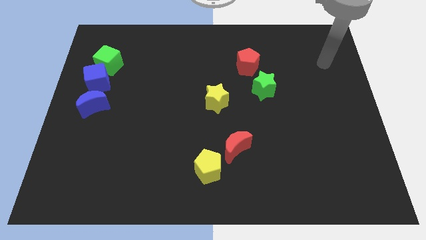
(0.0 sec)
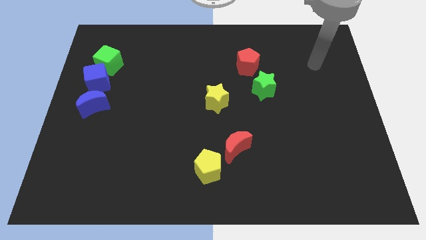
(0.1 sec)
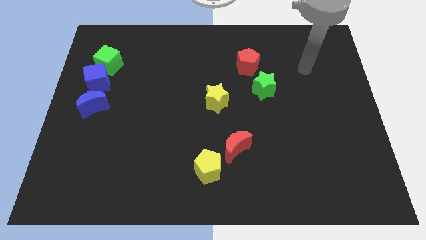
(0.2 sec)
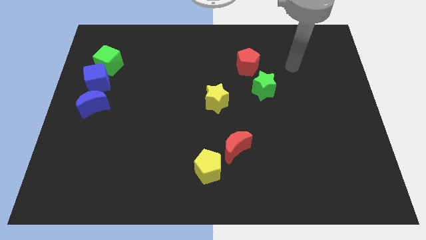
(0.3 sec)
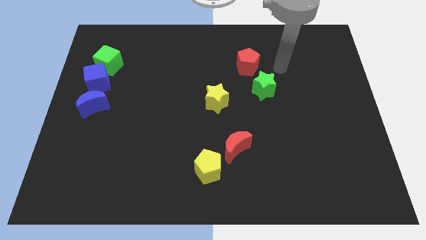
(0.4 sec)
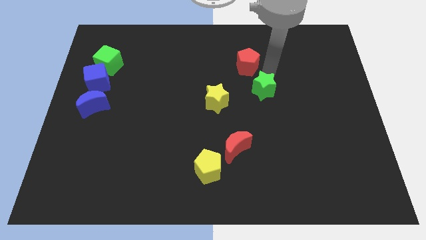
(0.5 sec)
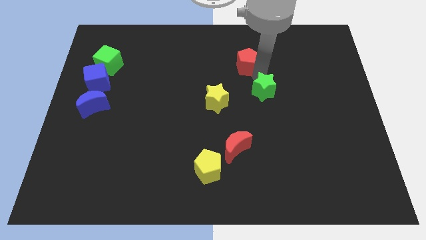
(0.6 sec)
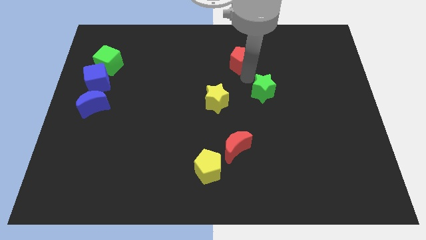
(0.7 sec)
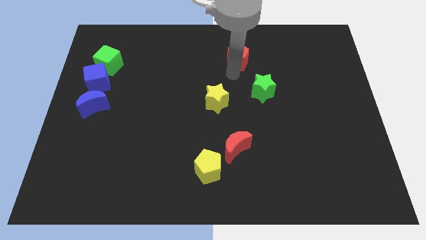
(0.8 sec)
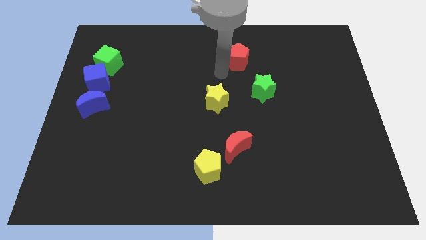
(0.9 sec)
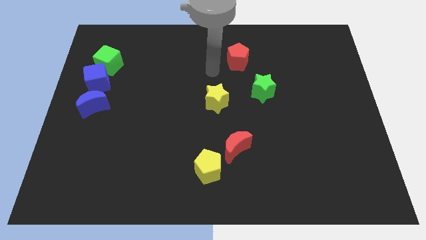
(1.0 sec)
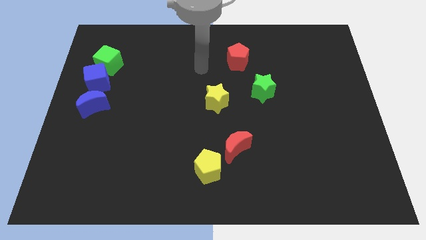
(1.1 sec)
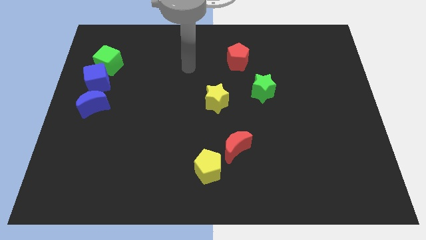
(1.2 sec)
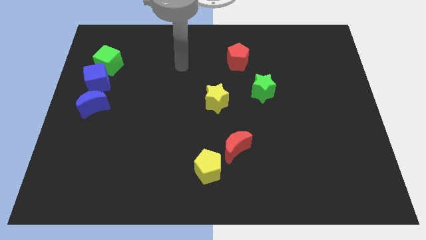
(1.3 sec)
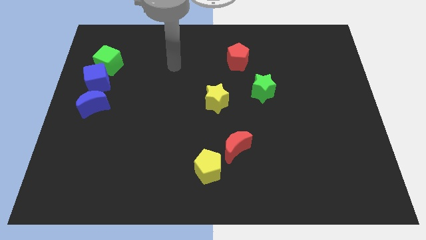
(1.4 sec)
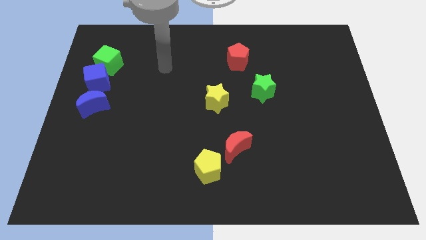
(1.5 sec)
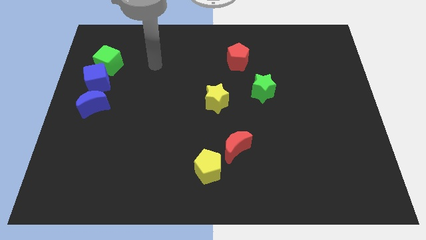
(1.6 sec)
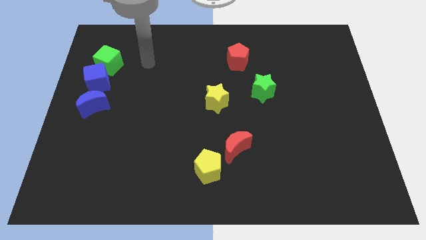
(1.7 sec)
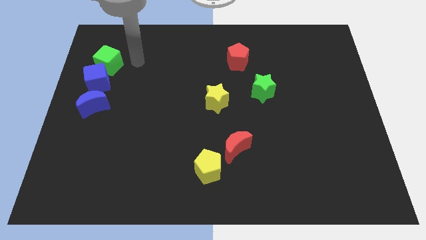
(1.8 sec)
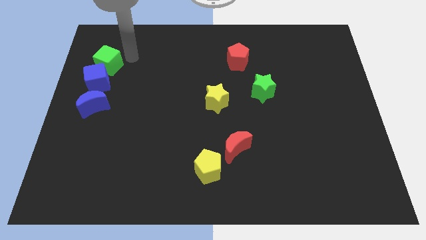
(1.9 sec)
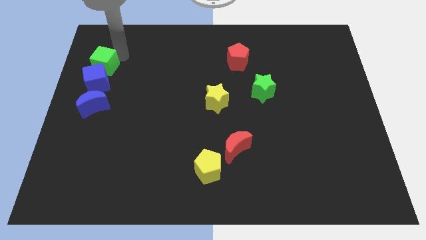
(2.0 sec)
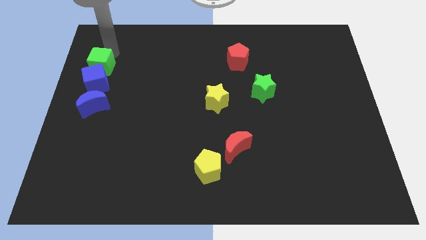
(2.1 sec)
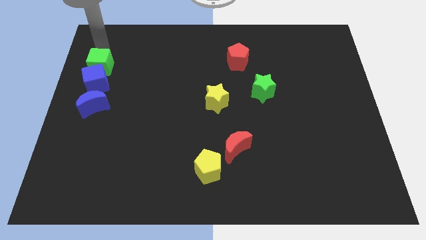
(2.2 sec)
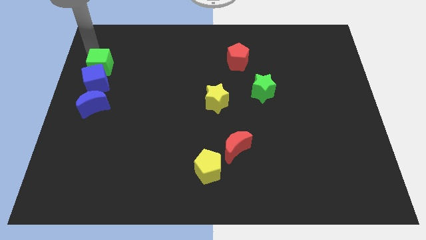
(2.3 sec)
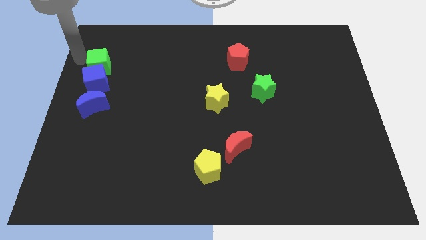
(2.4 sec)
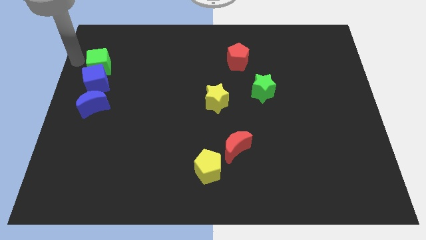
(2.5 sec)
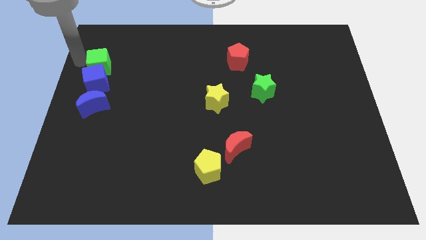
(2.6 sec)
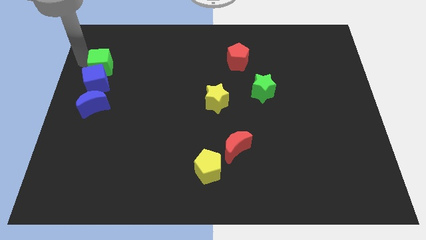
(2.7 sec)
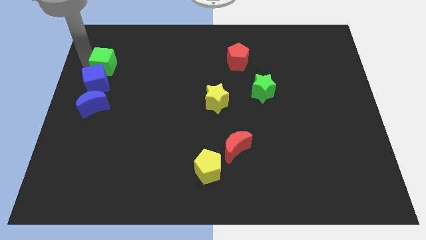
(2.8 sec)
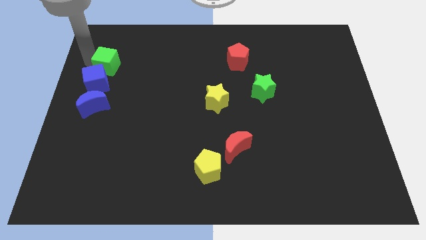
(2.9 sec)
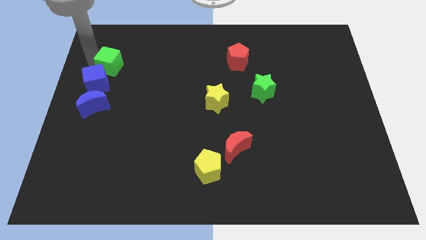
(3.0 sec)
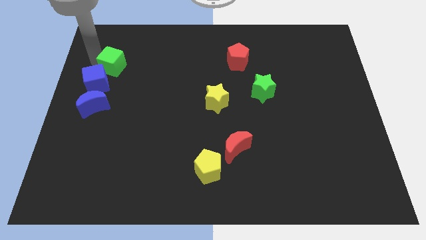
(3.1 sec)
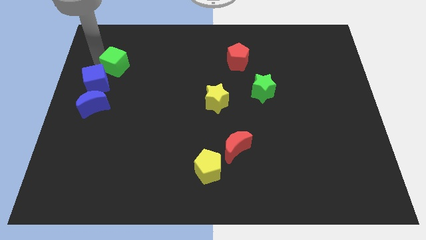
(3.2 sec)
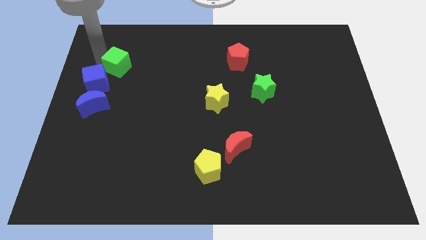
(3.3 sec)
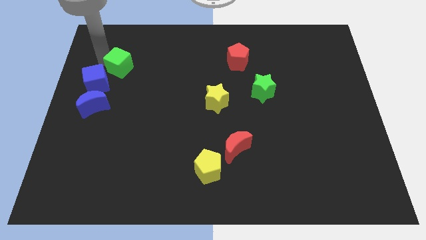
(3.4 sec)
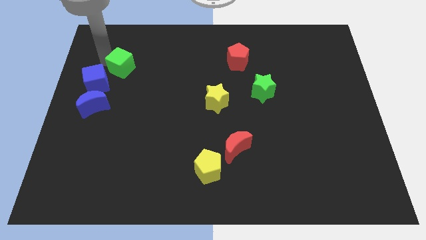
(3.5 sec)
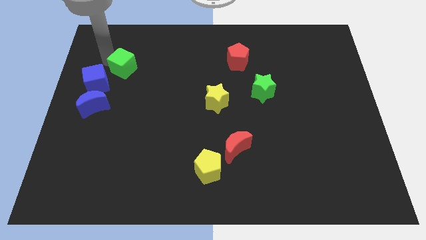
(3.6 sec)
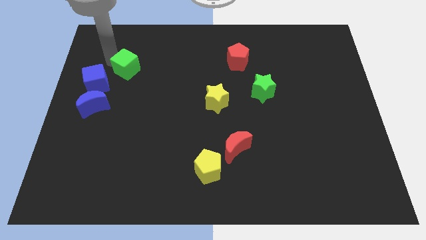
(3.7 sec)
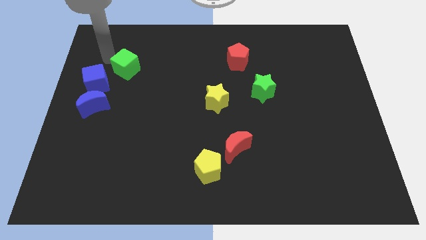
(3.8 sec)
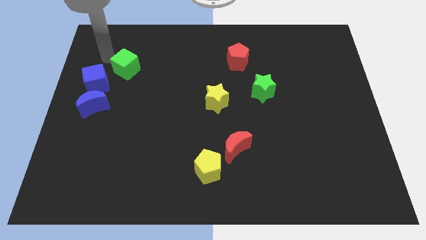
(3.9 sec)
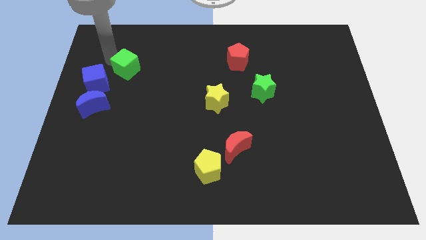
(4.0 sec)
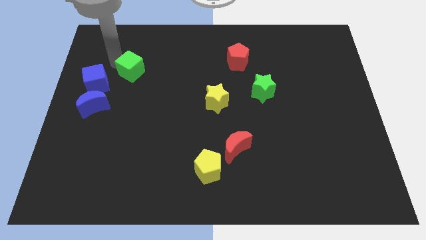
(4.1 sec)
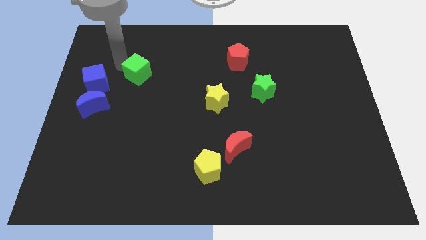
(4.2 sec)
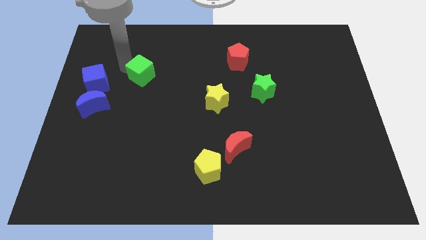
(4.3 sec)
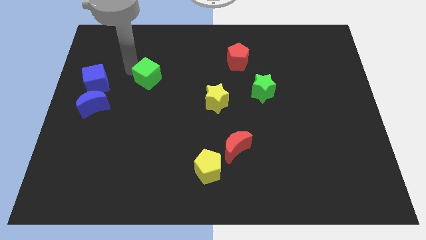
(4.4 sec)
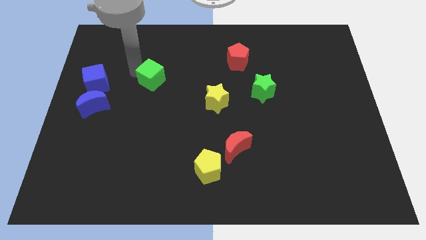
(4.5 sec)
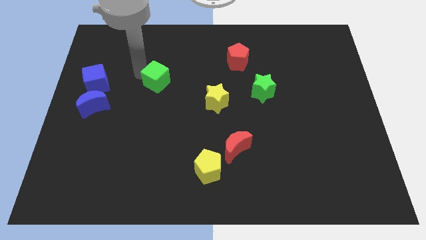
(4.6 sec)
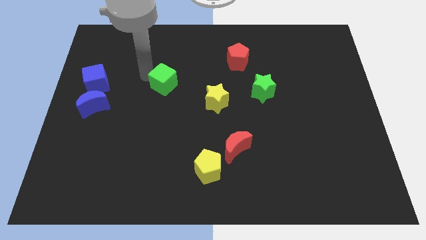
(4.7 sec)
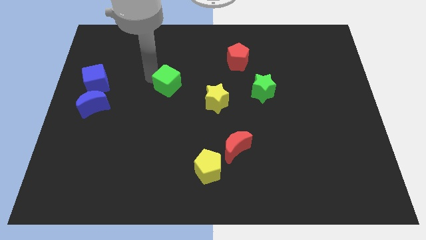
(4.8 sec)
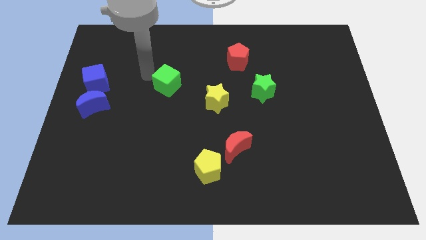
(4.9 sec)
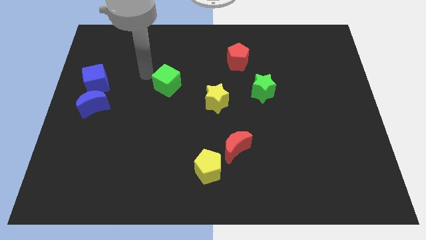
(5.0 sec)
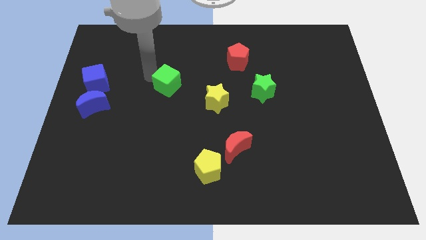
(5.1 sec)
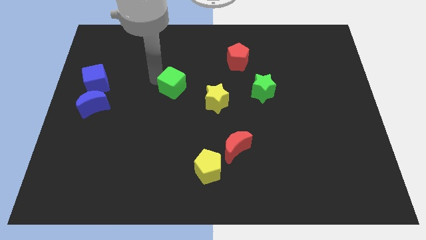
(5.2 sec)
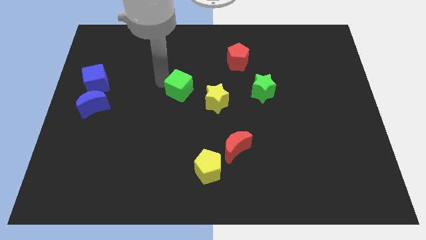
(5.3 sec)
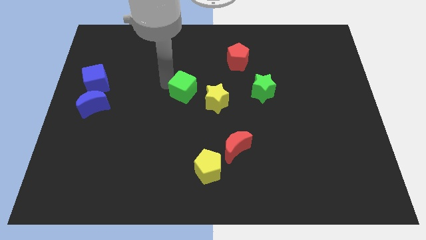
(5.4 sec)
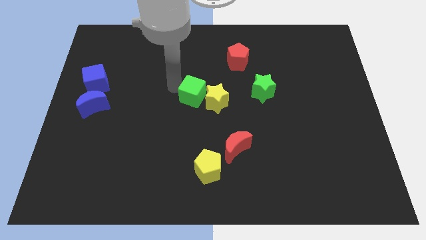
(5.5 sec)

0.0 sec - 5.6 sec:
put the green cube towards the yellow star

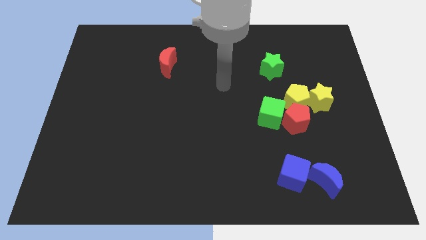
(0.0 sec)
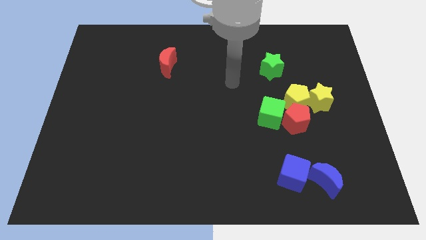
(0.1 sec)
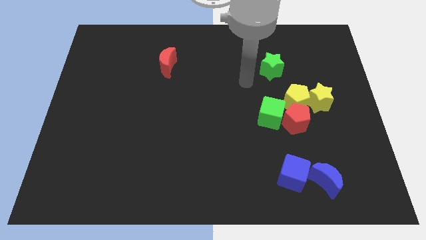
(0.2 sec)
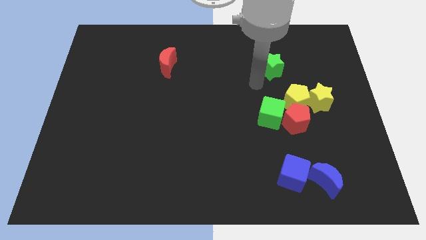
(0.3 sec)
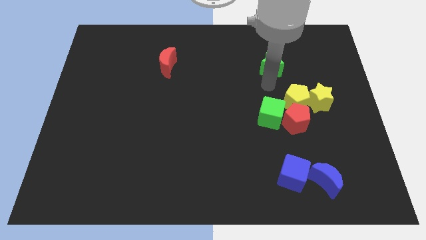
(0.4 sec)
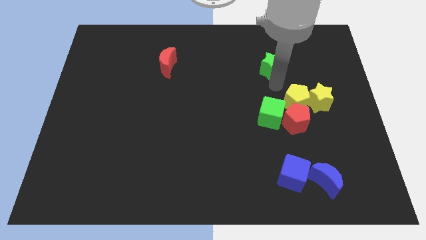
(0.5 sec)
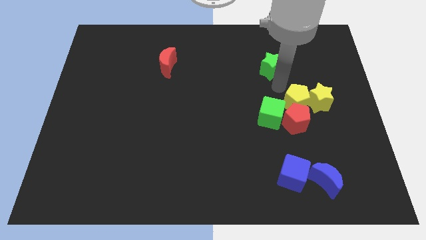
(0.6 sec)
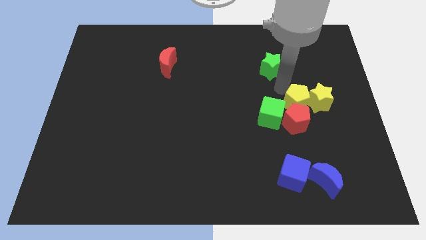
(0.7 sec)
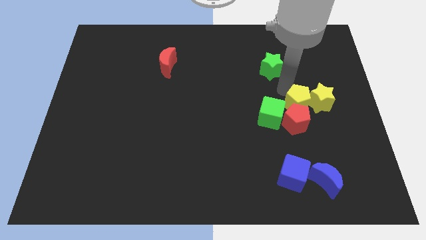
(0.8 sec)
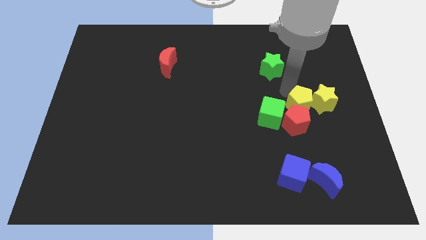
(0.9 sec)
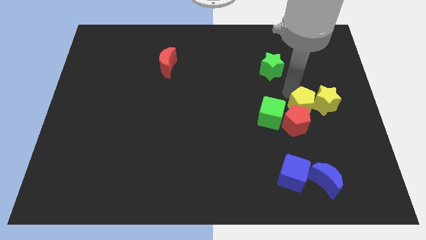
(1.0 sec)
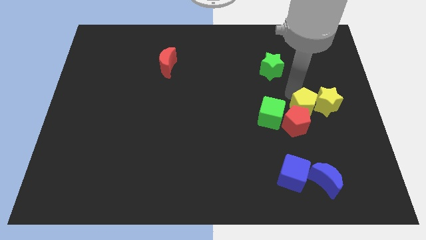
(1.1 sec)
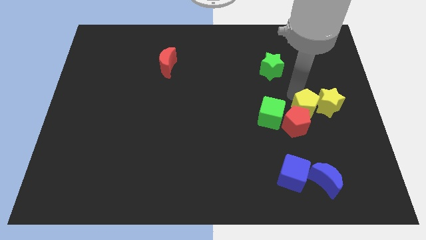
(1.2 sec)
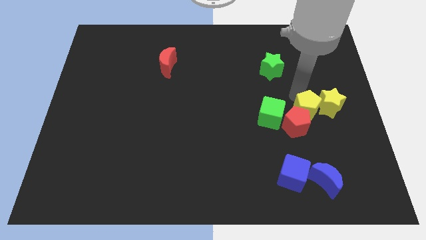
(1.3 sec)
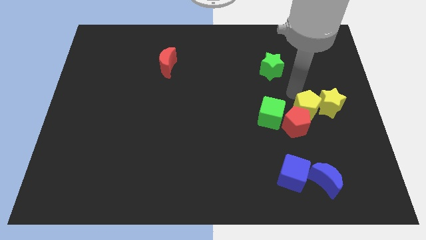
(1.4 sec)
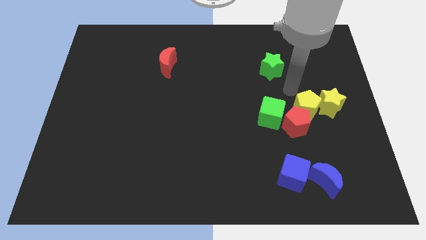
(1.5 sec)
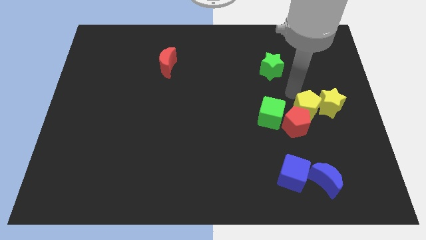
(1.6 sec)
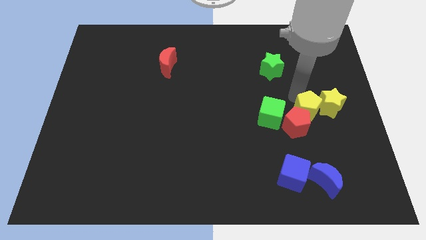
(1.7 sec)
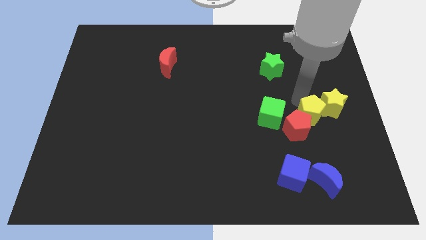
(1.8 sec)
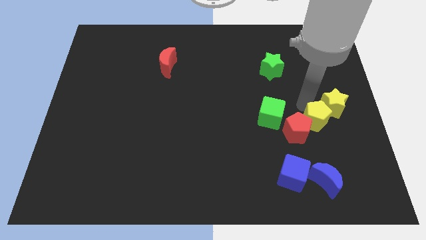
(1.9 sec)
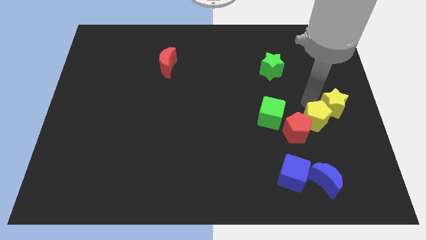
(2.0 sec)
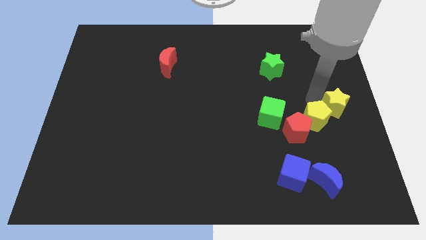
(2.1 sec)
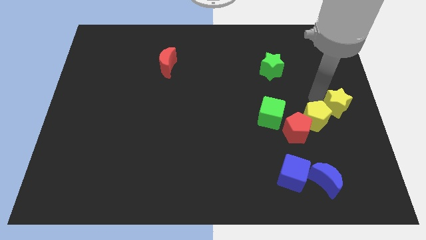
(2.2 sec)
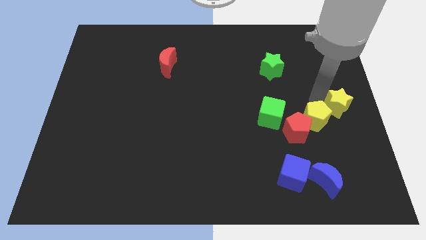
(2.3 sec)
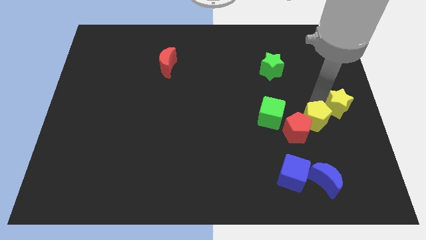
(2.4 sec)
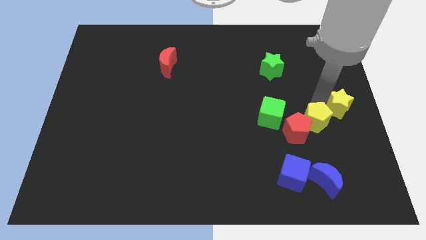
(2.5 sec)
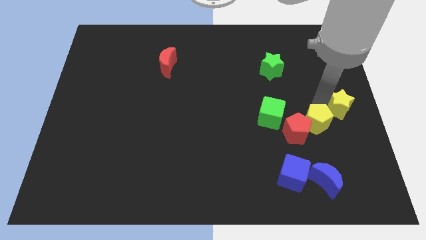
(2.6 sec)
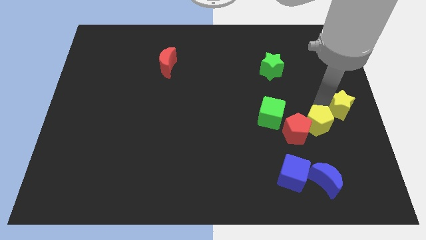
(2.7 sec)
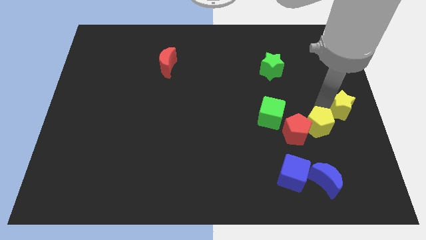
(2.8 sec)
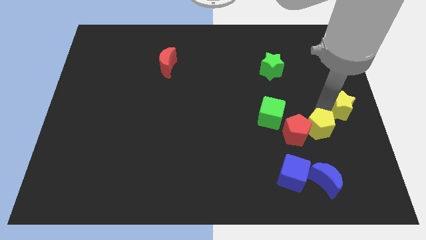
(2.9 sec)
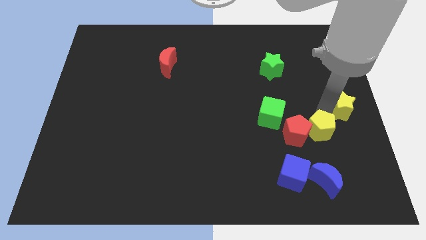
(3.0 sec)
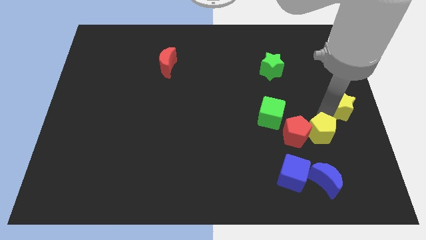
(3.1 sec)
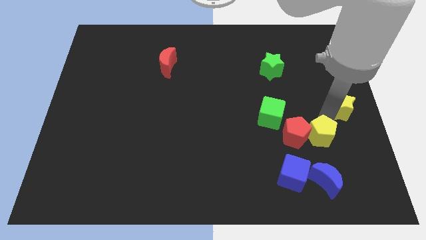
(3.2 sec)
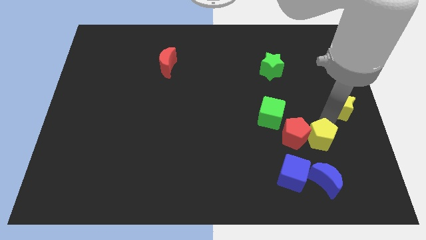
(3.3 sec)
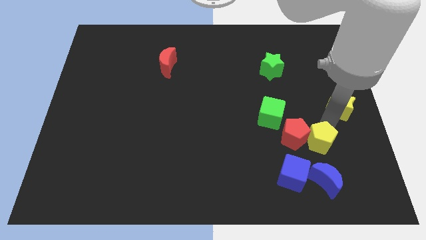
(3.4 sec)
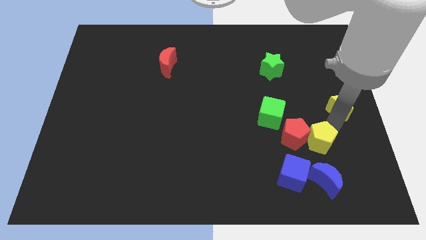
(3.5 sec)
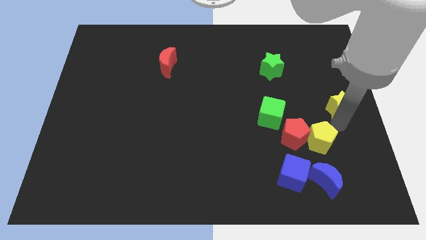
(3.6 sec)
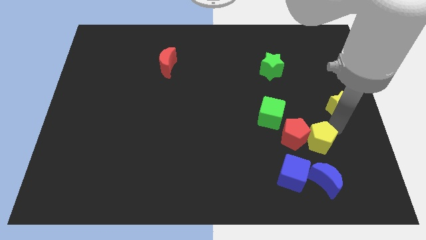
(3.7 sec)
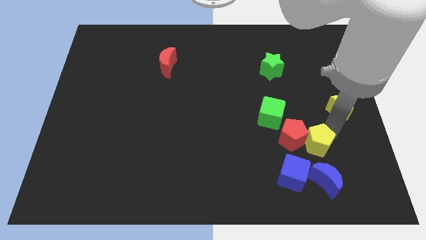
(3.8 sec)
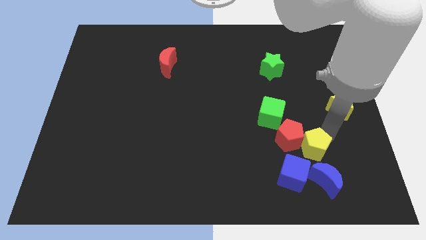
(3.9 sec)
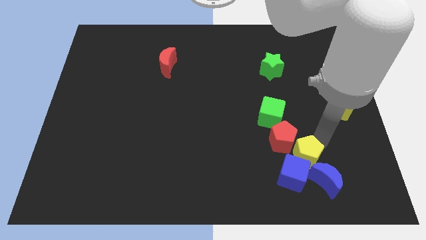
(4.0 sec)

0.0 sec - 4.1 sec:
put the yellow pentagon towards the blue cube
